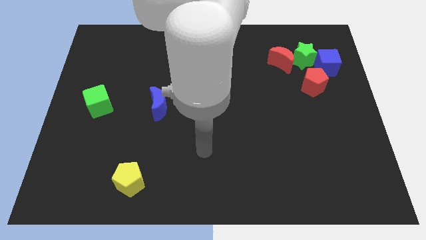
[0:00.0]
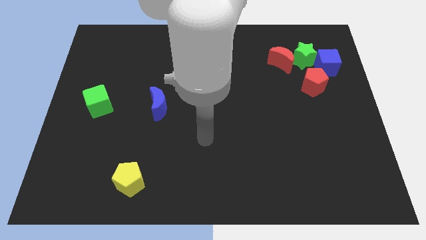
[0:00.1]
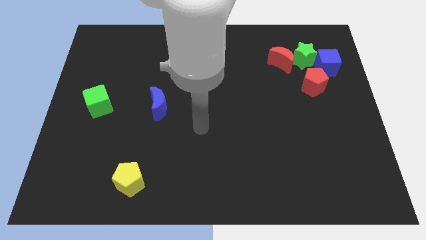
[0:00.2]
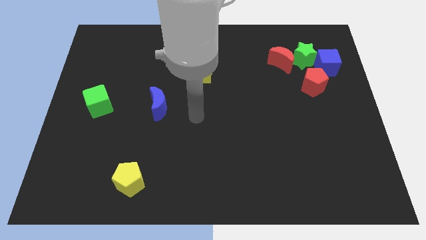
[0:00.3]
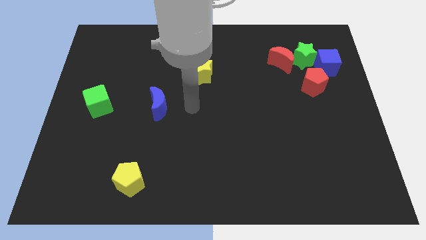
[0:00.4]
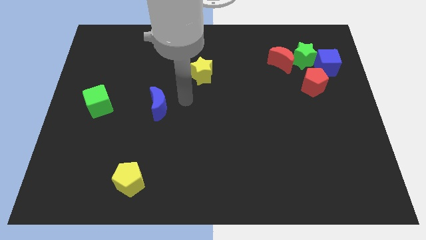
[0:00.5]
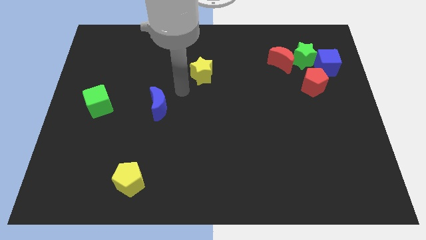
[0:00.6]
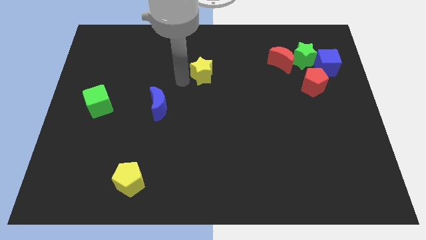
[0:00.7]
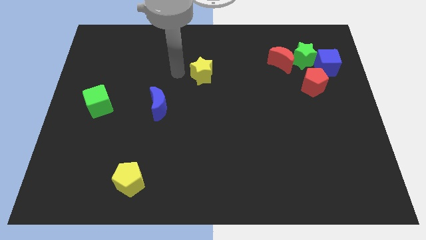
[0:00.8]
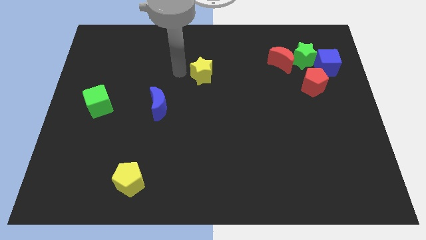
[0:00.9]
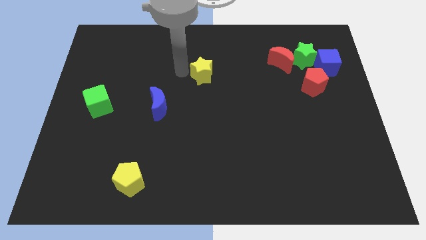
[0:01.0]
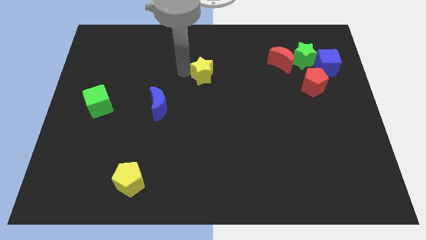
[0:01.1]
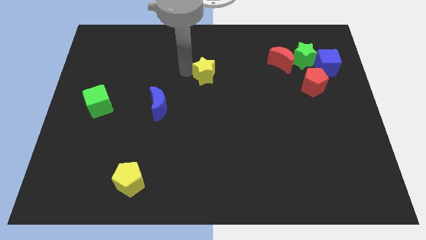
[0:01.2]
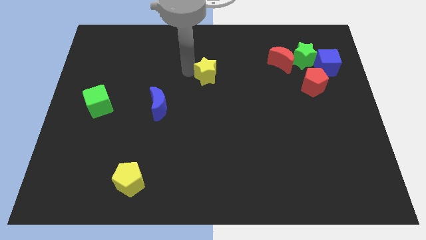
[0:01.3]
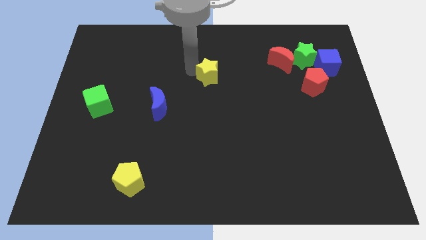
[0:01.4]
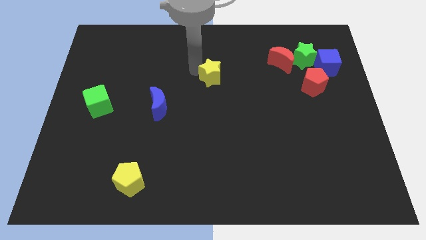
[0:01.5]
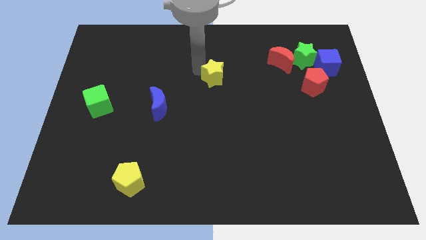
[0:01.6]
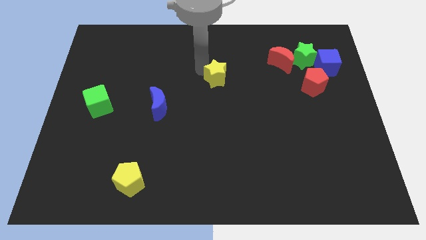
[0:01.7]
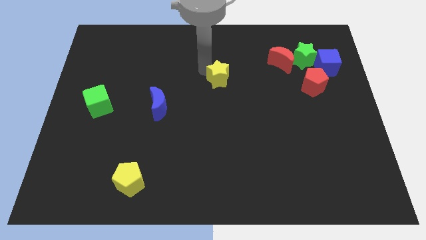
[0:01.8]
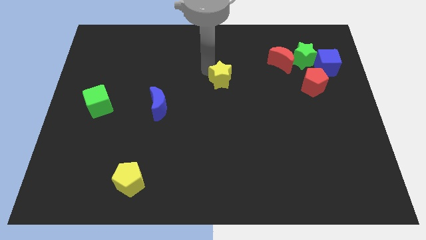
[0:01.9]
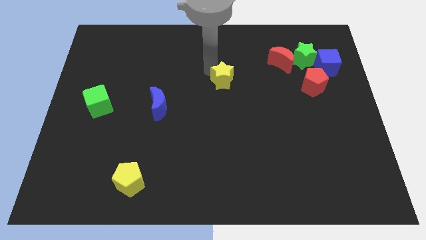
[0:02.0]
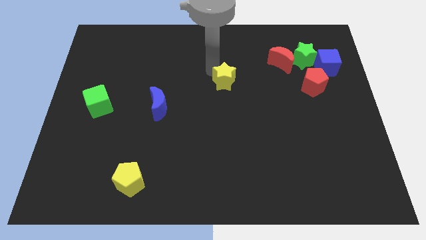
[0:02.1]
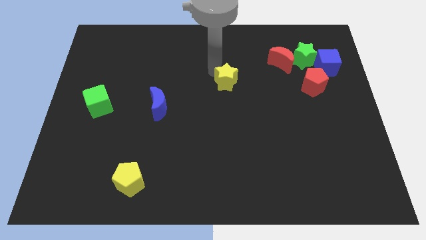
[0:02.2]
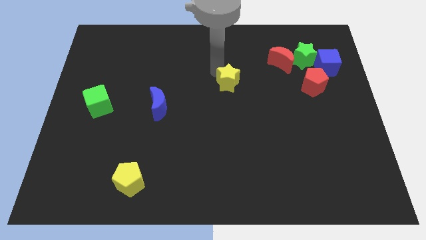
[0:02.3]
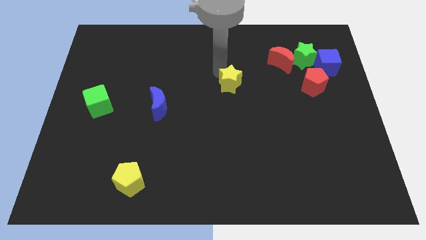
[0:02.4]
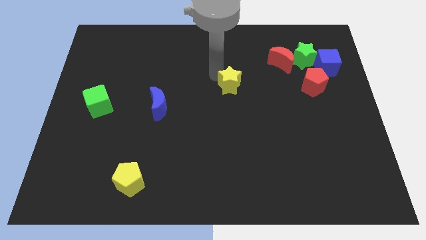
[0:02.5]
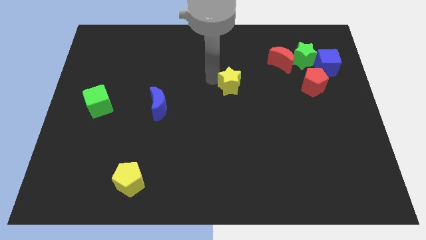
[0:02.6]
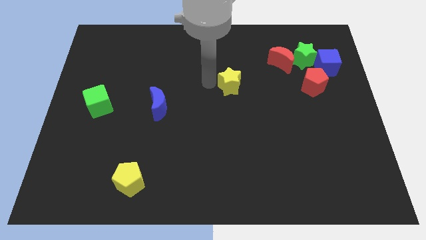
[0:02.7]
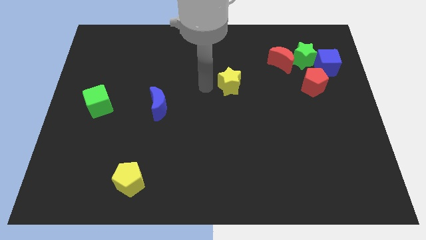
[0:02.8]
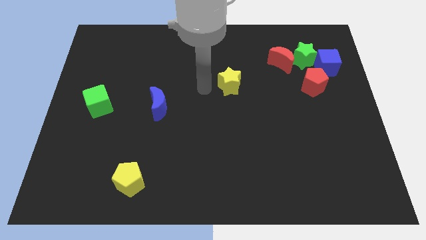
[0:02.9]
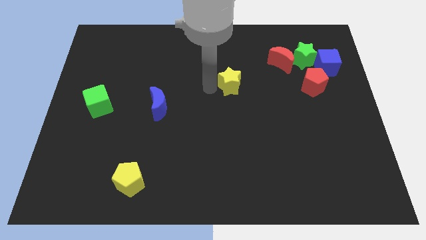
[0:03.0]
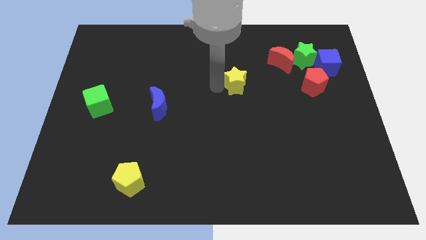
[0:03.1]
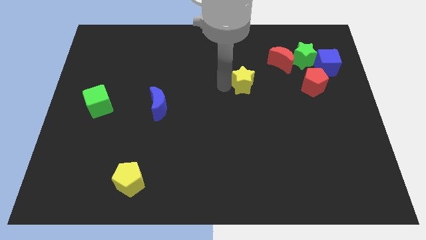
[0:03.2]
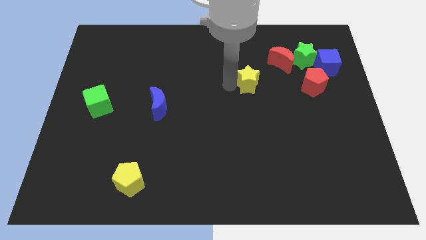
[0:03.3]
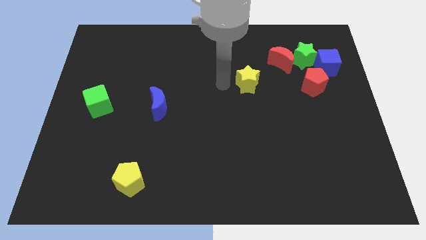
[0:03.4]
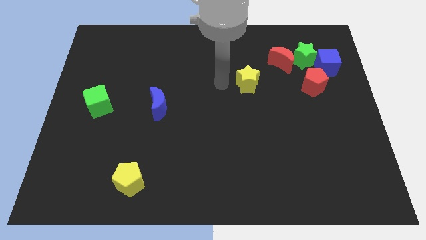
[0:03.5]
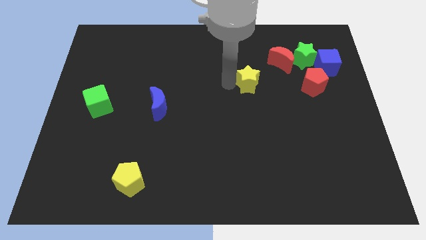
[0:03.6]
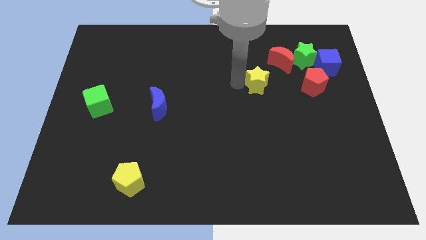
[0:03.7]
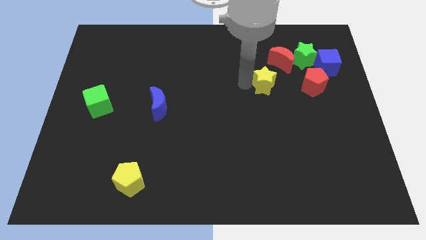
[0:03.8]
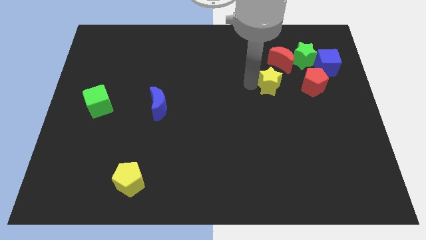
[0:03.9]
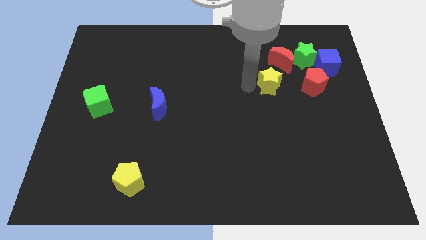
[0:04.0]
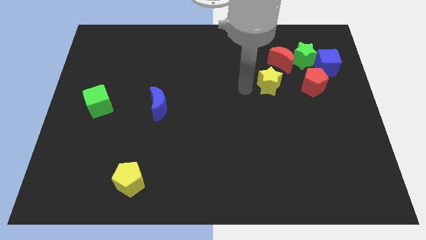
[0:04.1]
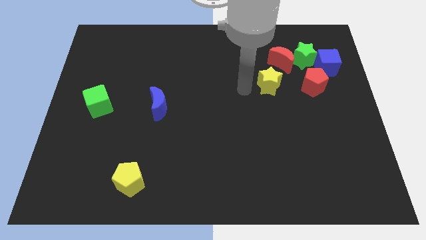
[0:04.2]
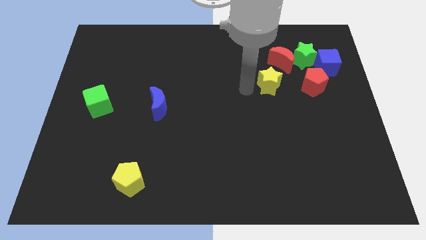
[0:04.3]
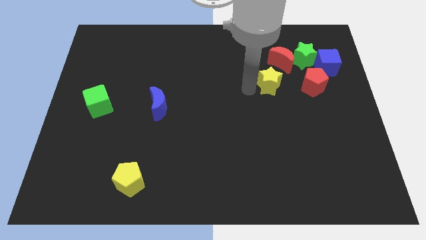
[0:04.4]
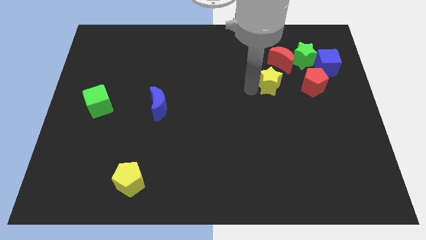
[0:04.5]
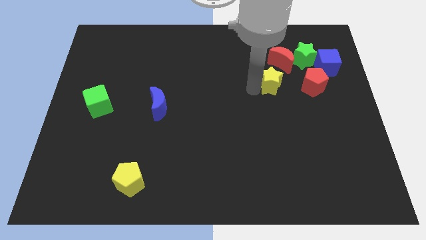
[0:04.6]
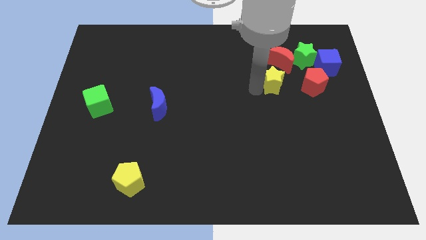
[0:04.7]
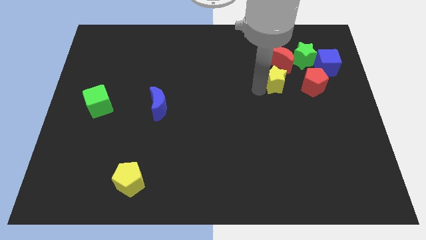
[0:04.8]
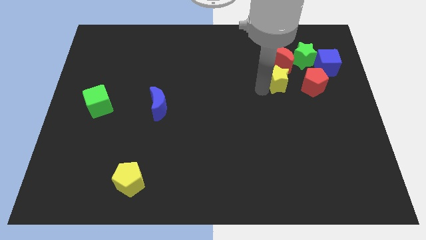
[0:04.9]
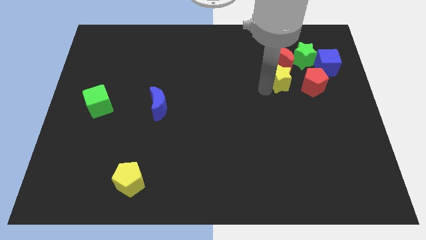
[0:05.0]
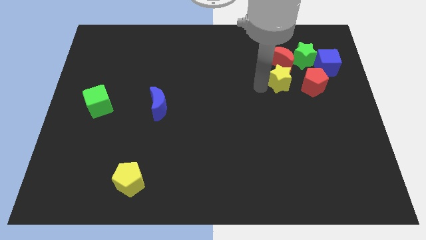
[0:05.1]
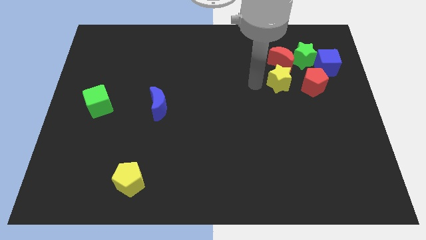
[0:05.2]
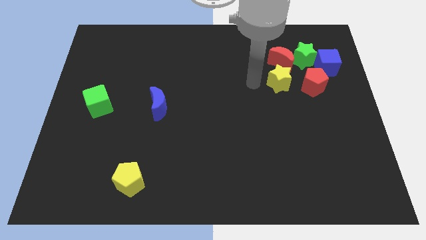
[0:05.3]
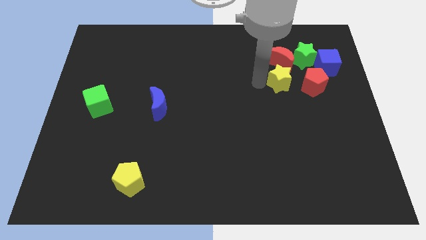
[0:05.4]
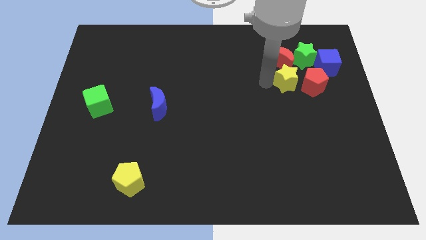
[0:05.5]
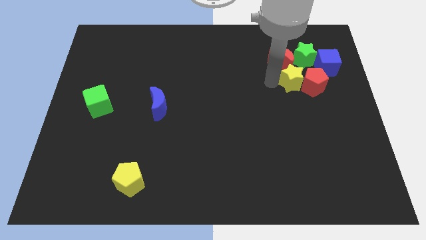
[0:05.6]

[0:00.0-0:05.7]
move the yellow star towards the red pentagon
